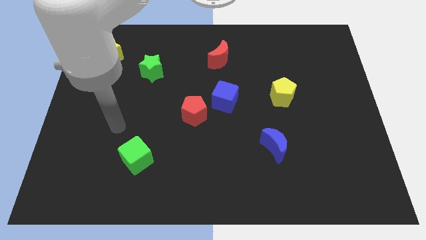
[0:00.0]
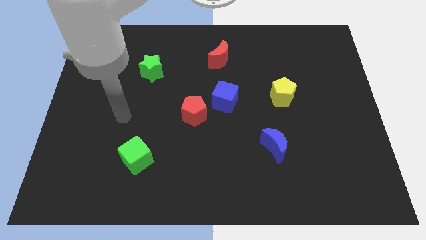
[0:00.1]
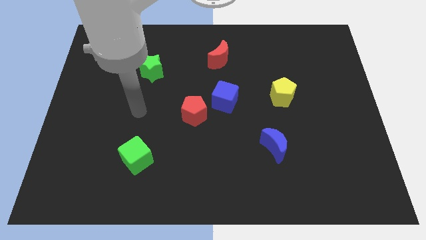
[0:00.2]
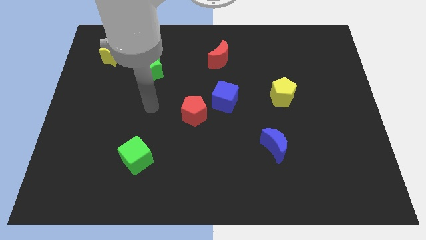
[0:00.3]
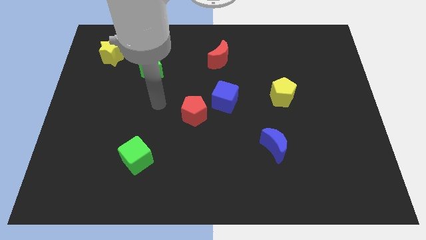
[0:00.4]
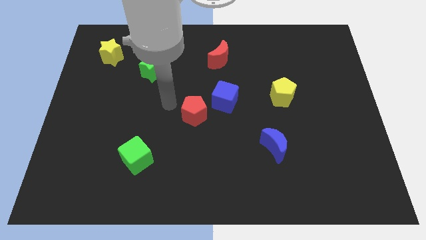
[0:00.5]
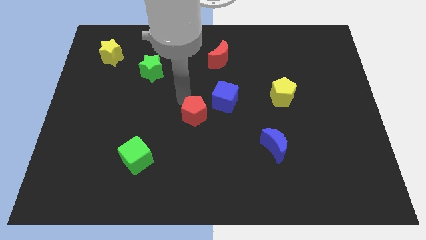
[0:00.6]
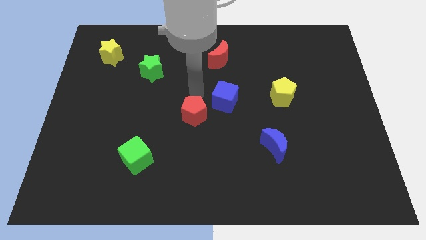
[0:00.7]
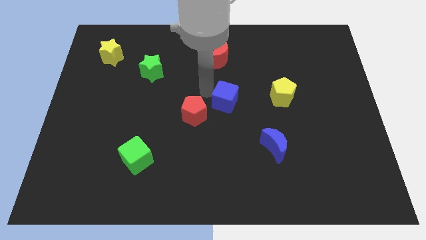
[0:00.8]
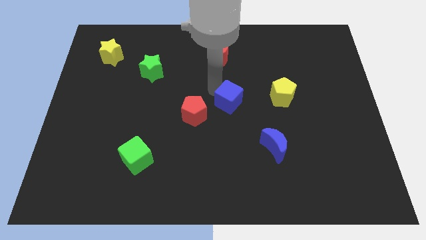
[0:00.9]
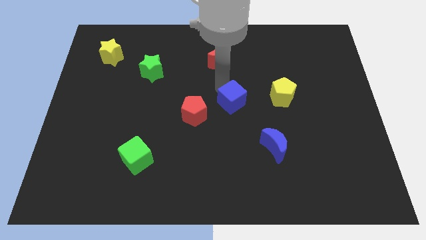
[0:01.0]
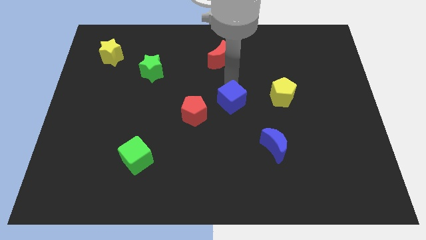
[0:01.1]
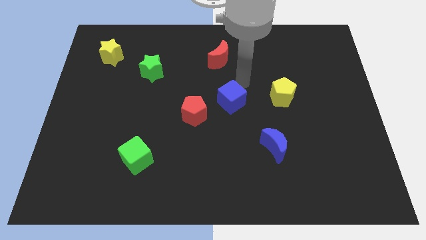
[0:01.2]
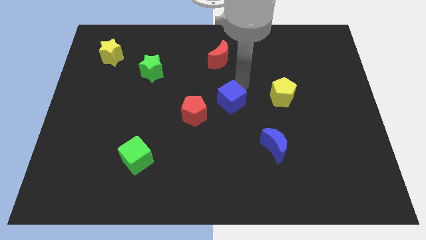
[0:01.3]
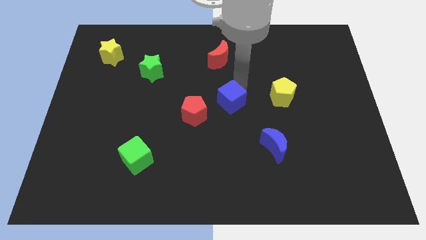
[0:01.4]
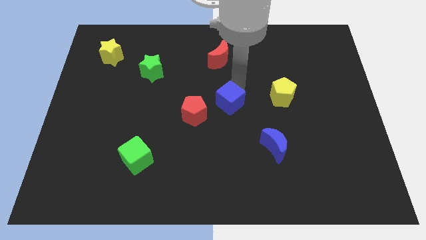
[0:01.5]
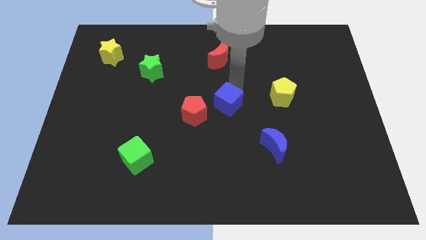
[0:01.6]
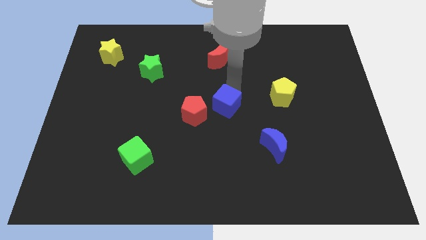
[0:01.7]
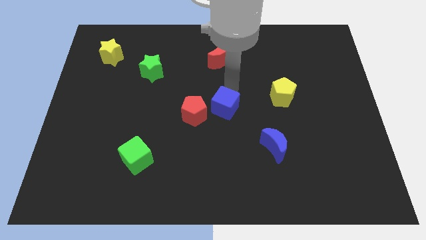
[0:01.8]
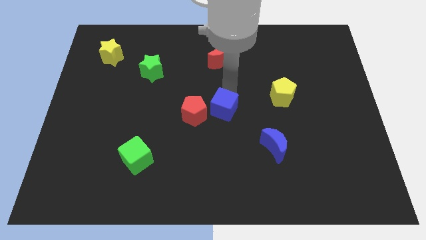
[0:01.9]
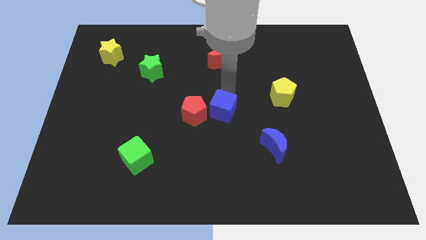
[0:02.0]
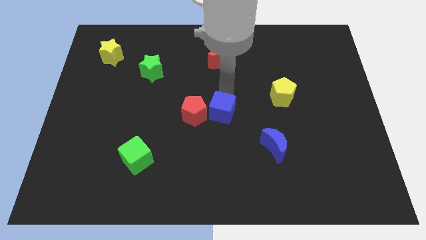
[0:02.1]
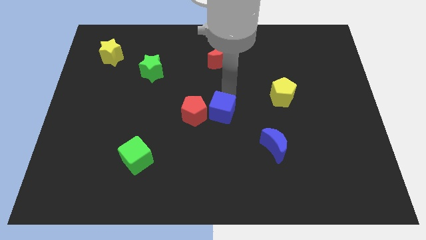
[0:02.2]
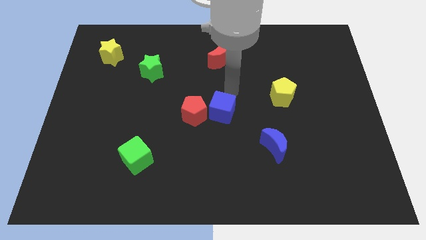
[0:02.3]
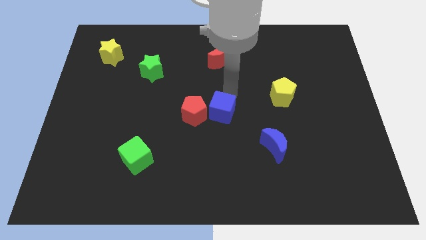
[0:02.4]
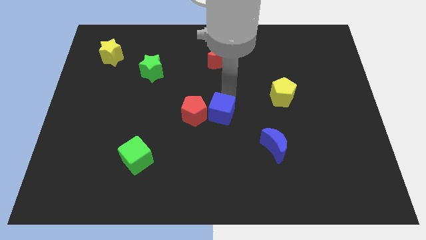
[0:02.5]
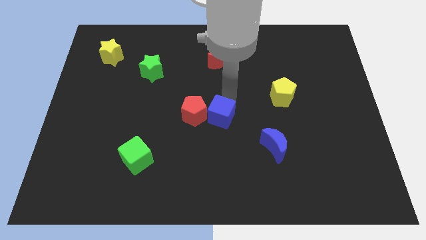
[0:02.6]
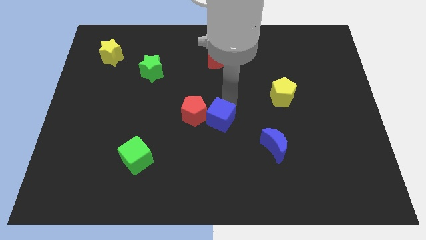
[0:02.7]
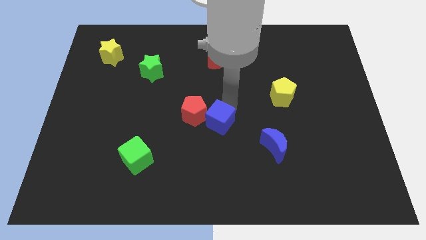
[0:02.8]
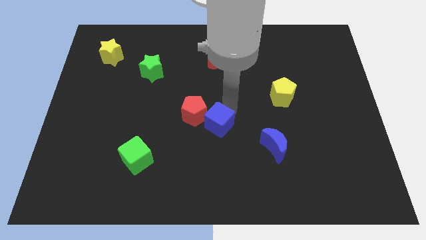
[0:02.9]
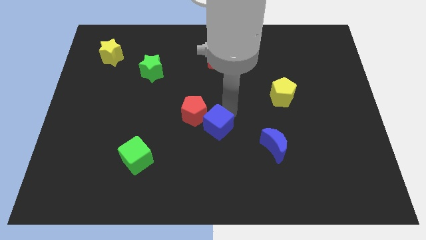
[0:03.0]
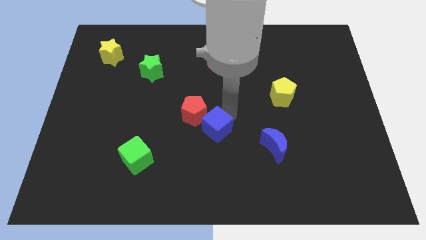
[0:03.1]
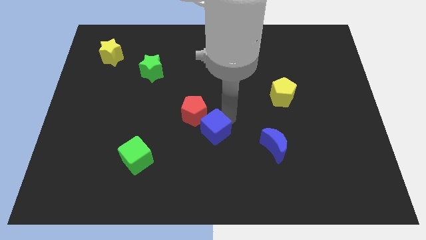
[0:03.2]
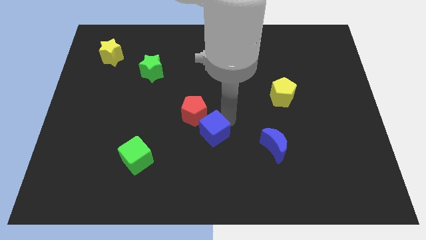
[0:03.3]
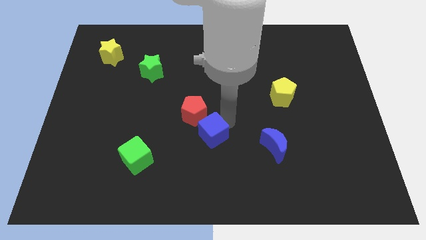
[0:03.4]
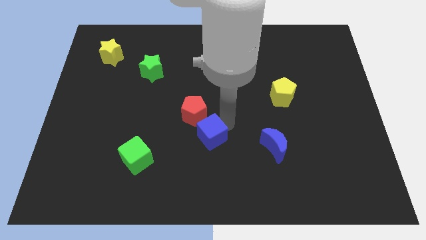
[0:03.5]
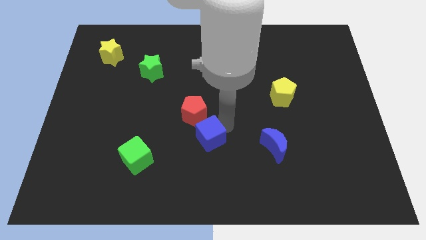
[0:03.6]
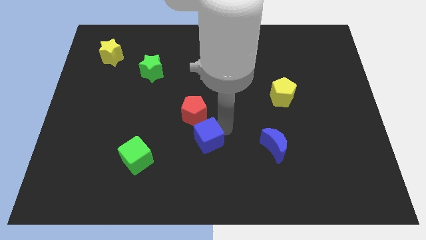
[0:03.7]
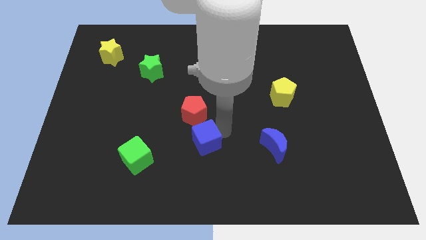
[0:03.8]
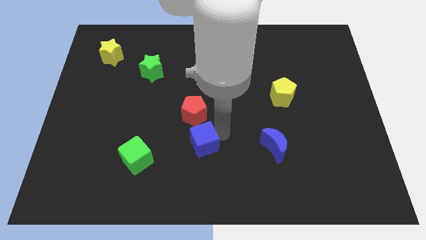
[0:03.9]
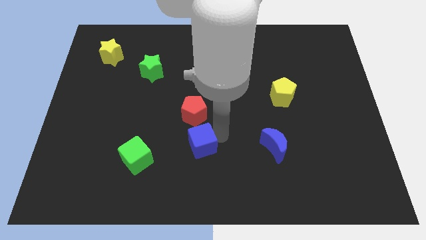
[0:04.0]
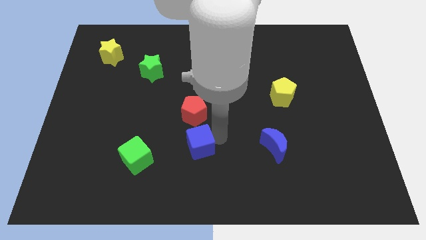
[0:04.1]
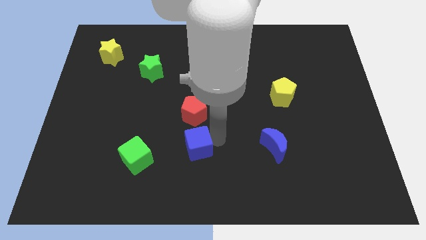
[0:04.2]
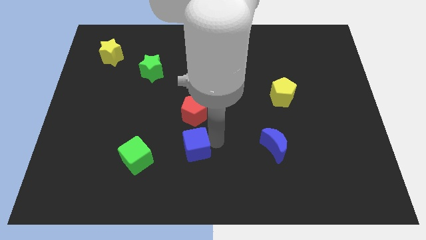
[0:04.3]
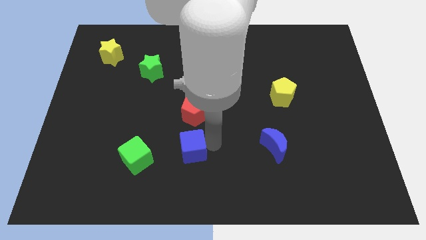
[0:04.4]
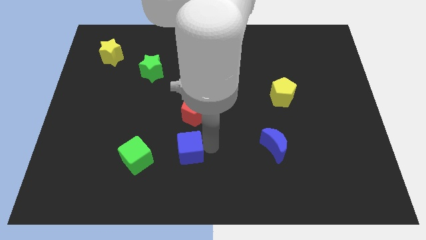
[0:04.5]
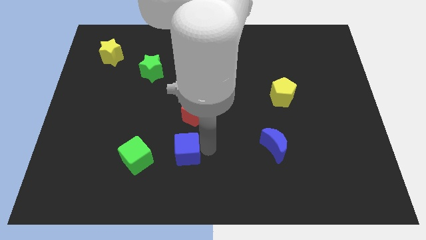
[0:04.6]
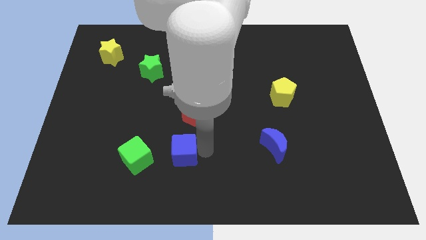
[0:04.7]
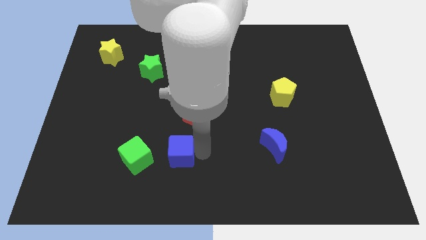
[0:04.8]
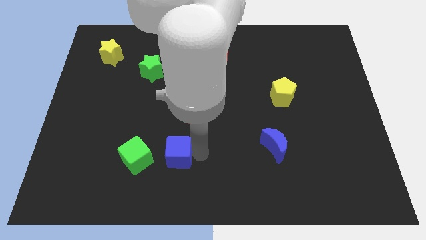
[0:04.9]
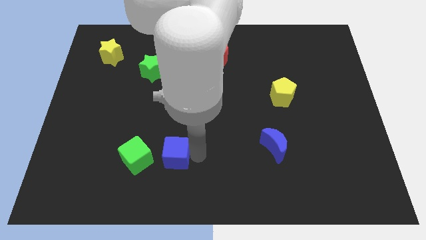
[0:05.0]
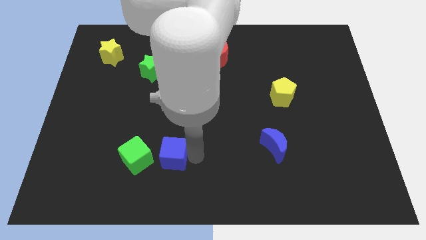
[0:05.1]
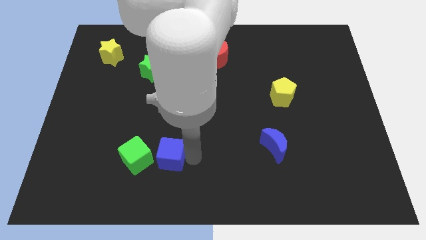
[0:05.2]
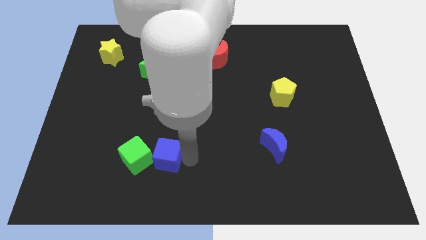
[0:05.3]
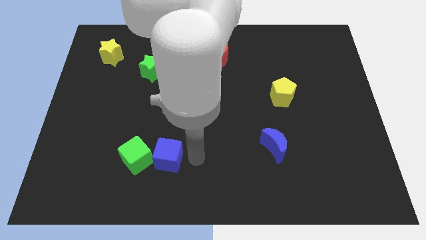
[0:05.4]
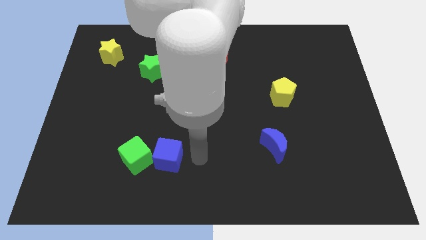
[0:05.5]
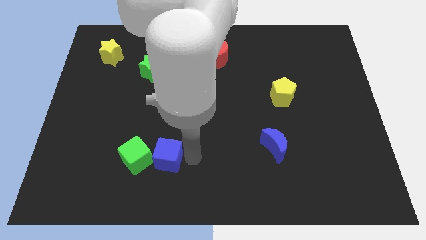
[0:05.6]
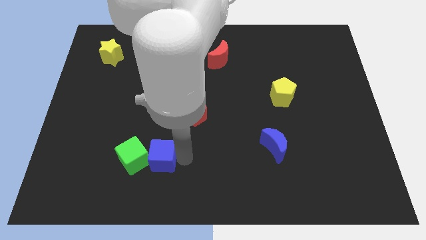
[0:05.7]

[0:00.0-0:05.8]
move the blue cube to the green cube

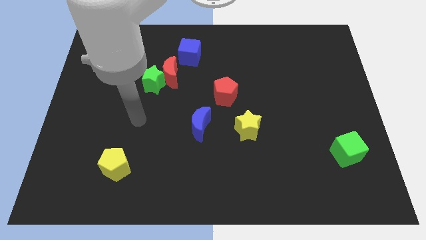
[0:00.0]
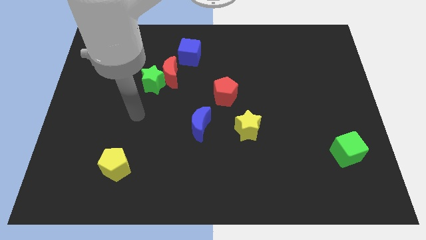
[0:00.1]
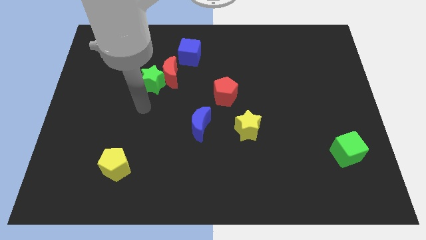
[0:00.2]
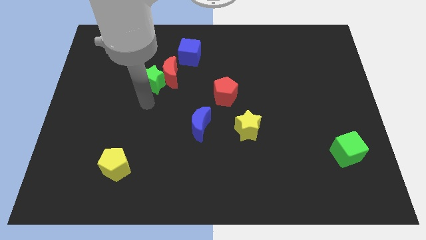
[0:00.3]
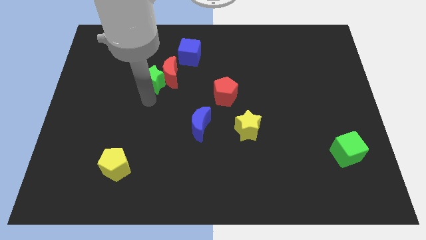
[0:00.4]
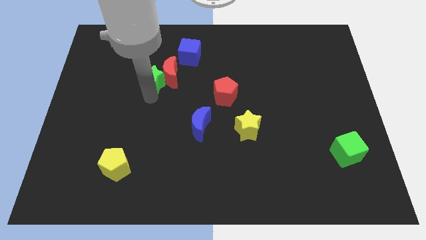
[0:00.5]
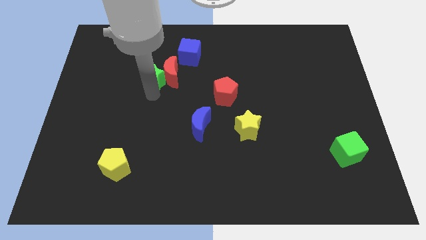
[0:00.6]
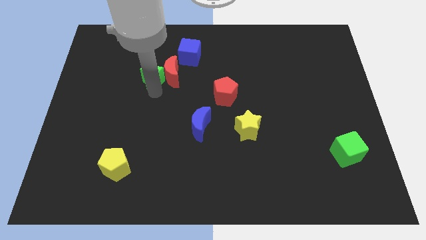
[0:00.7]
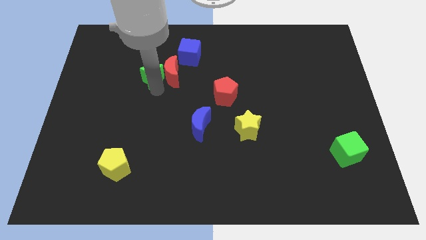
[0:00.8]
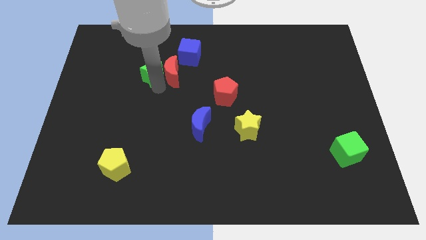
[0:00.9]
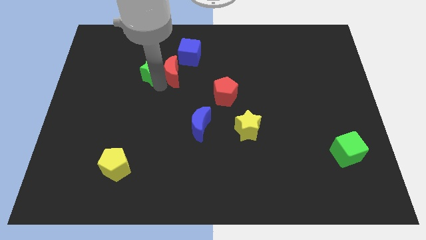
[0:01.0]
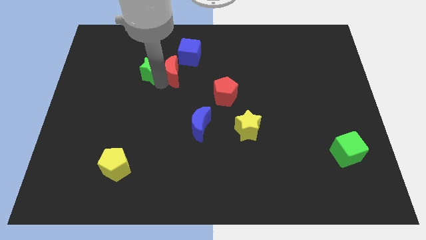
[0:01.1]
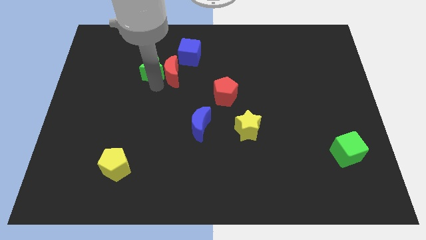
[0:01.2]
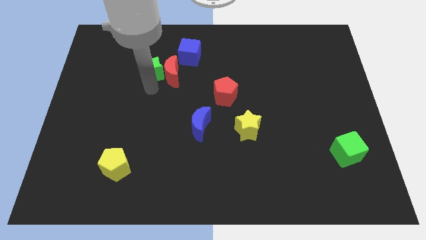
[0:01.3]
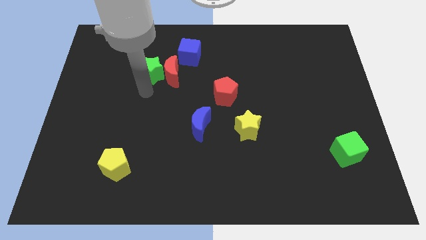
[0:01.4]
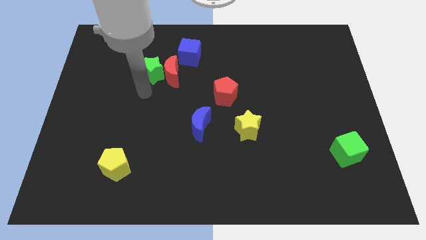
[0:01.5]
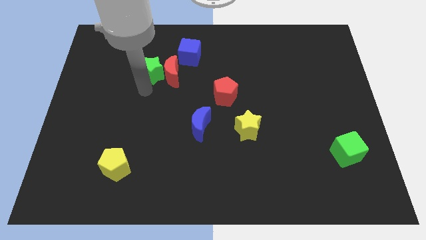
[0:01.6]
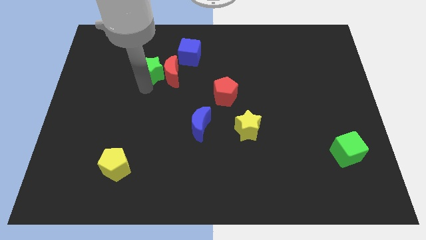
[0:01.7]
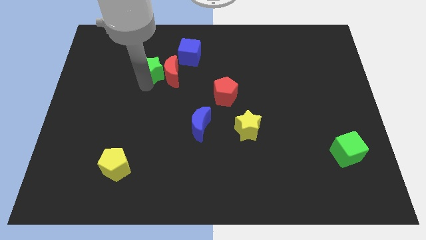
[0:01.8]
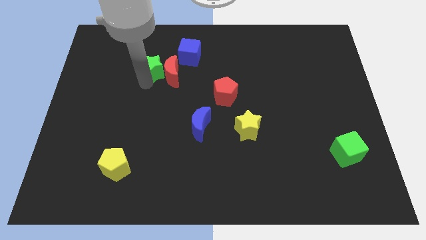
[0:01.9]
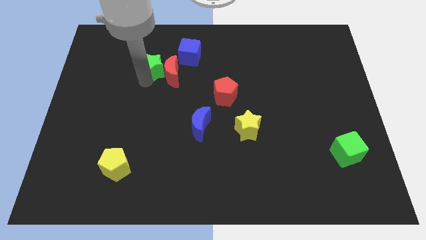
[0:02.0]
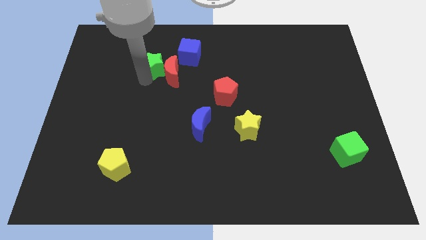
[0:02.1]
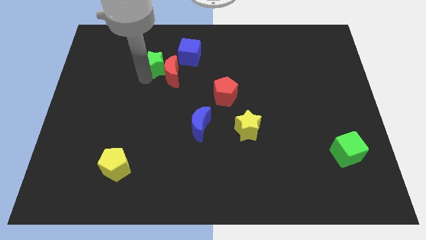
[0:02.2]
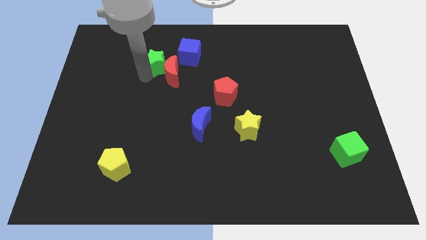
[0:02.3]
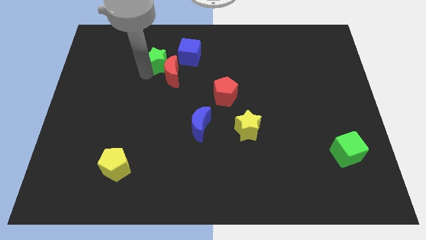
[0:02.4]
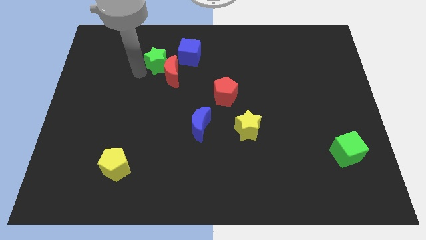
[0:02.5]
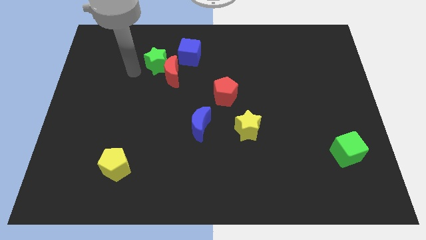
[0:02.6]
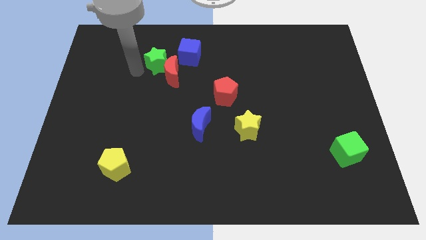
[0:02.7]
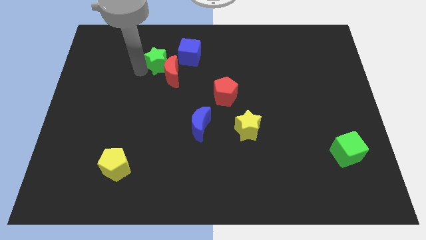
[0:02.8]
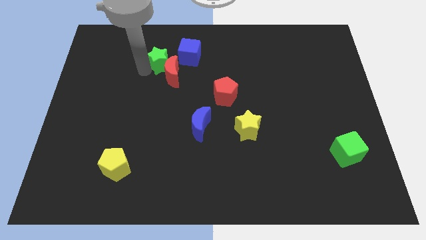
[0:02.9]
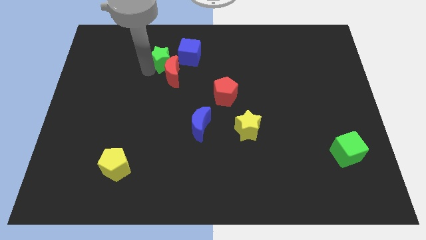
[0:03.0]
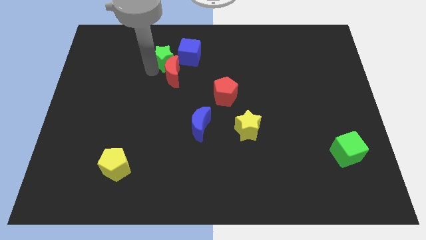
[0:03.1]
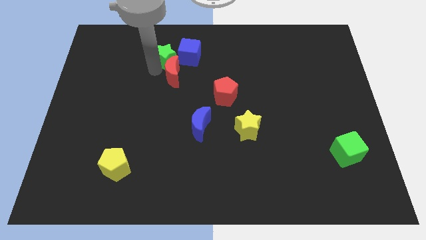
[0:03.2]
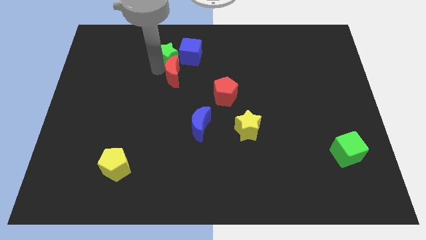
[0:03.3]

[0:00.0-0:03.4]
put the green star to the blue cube
